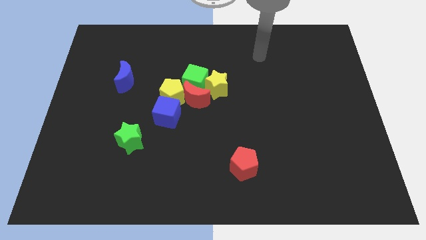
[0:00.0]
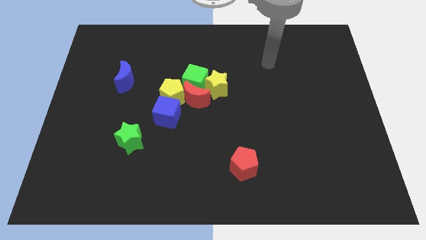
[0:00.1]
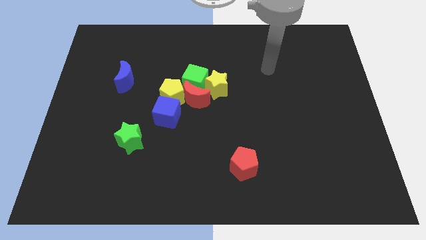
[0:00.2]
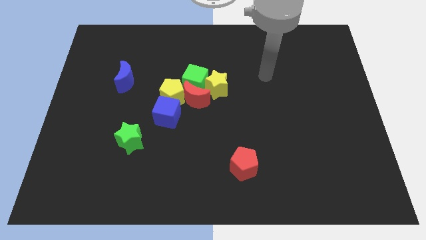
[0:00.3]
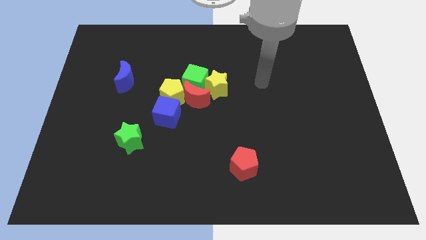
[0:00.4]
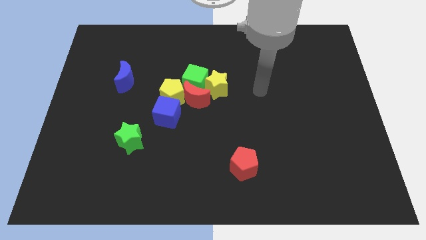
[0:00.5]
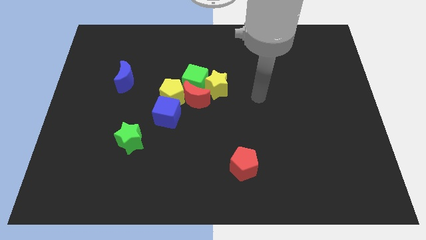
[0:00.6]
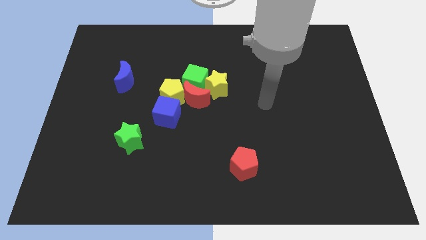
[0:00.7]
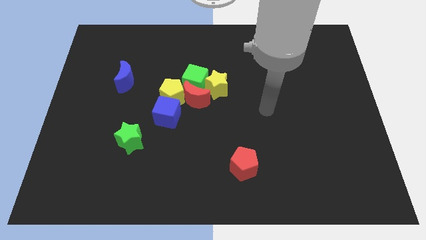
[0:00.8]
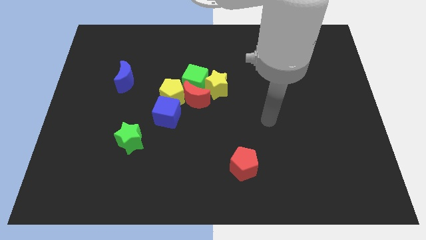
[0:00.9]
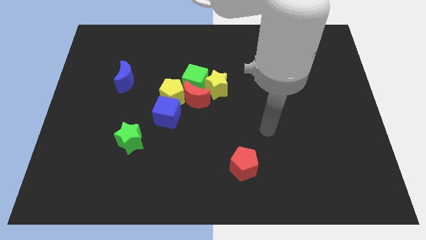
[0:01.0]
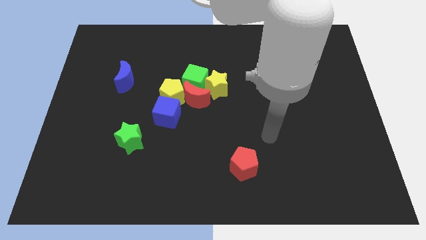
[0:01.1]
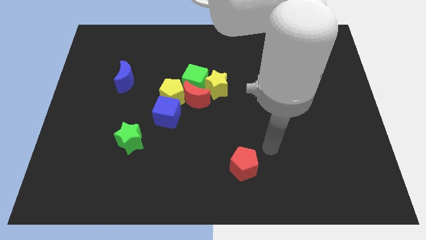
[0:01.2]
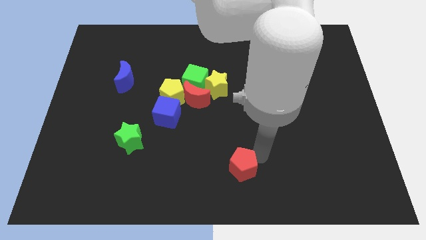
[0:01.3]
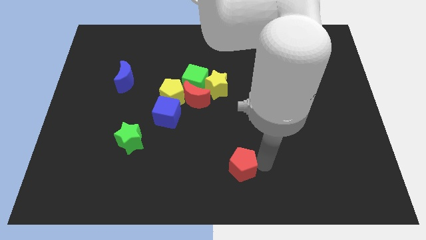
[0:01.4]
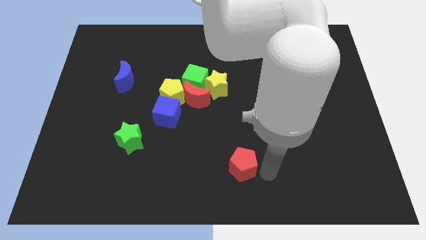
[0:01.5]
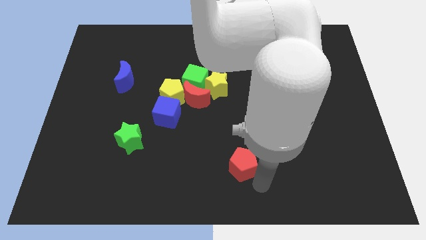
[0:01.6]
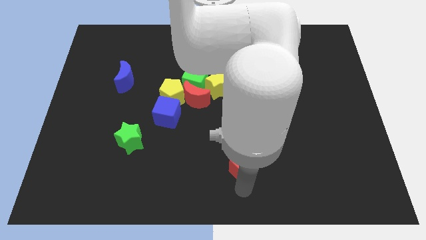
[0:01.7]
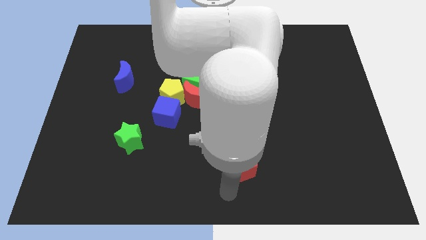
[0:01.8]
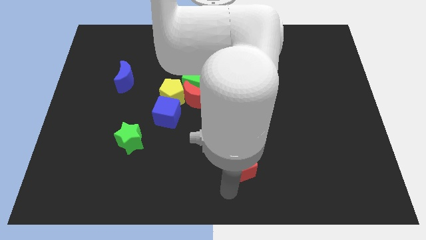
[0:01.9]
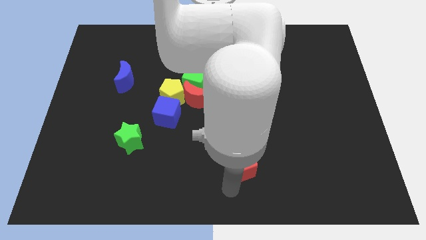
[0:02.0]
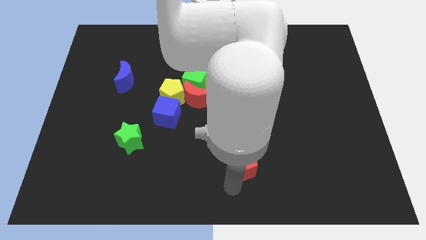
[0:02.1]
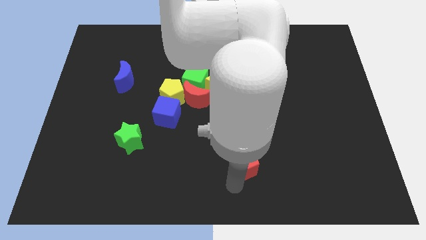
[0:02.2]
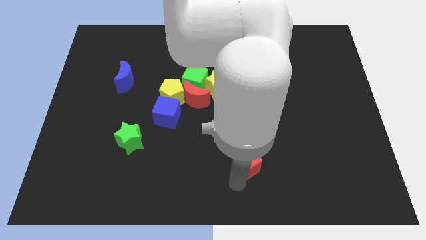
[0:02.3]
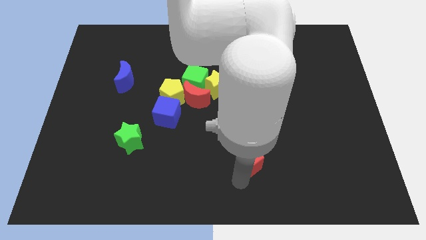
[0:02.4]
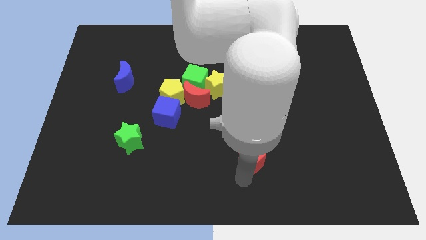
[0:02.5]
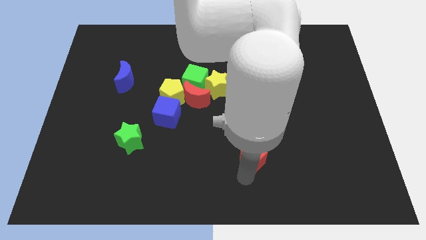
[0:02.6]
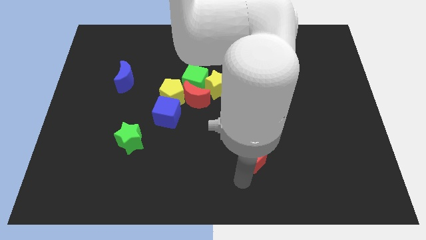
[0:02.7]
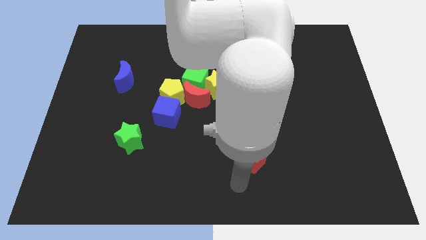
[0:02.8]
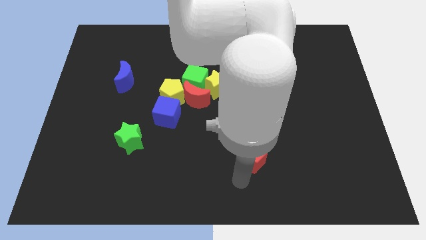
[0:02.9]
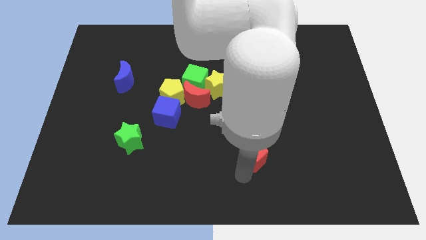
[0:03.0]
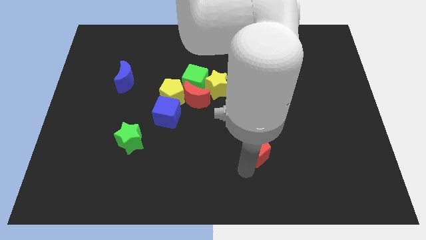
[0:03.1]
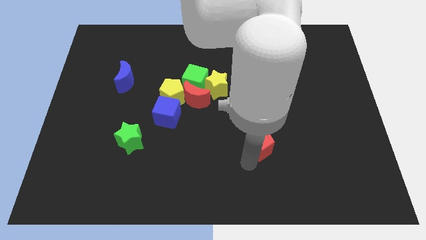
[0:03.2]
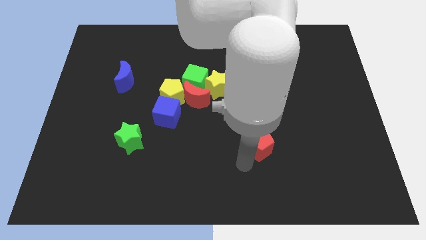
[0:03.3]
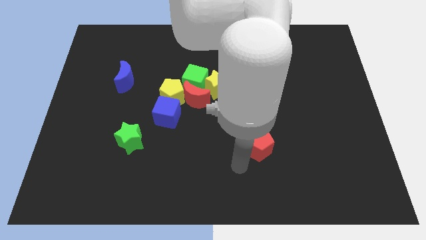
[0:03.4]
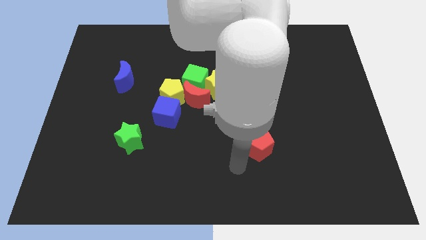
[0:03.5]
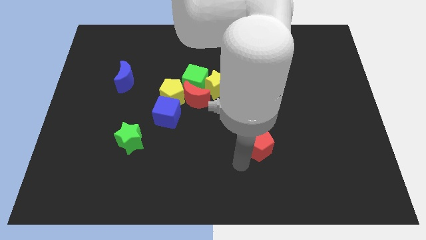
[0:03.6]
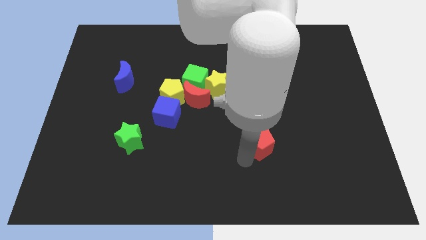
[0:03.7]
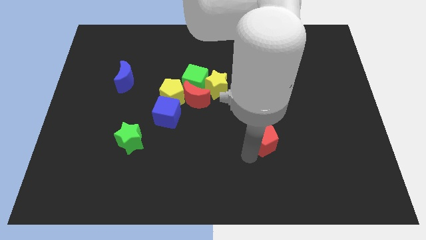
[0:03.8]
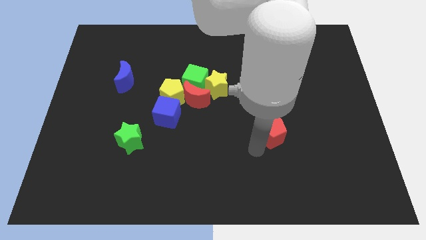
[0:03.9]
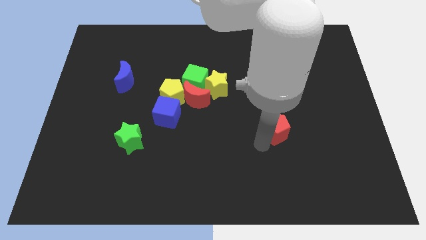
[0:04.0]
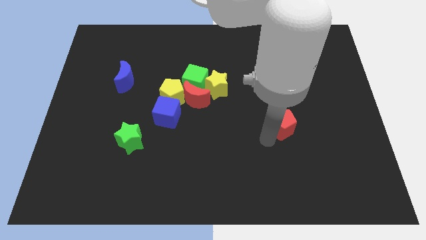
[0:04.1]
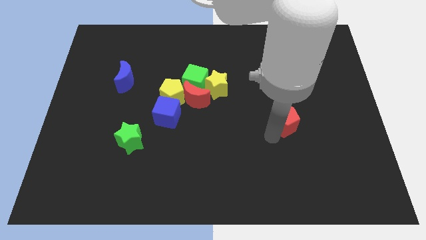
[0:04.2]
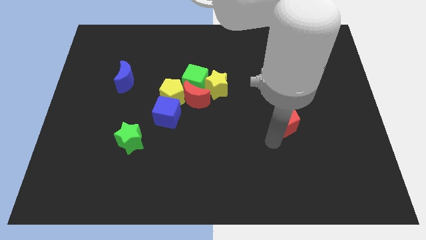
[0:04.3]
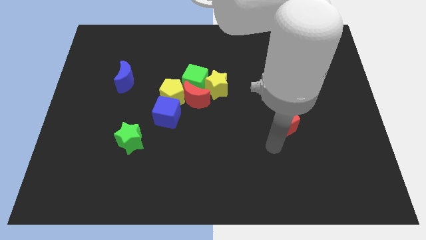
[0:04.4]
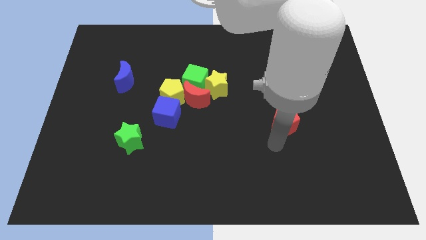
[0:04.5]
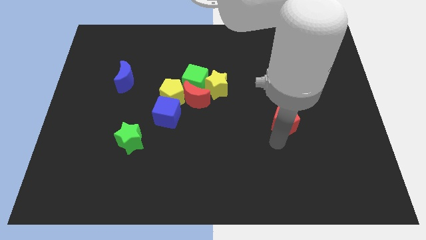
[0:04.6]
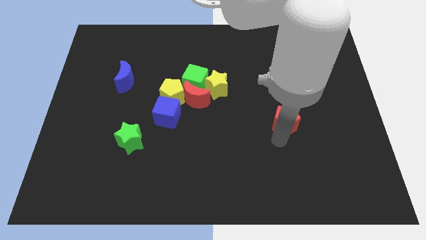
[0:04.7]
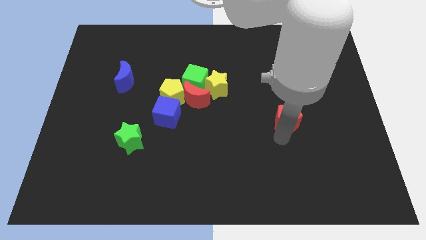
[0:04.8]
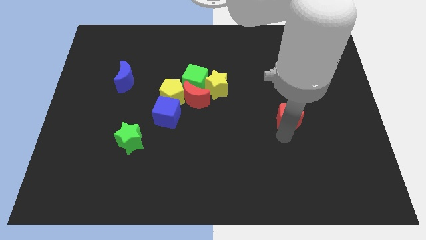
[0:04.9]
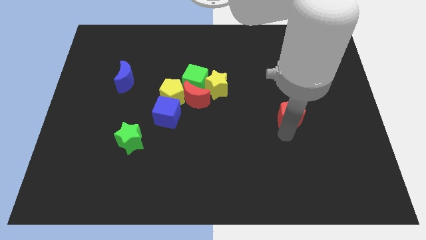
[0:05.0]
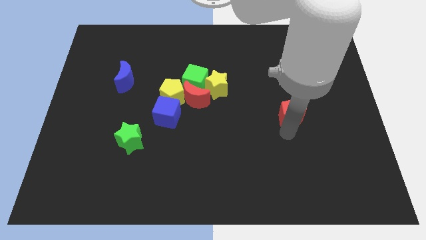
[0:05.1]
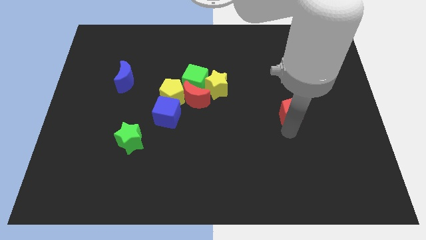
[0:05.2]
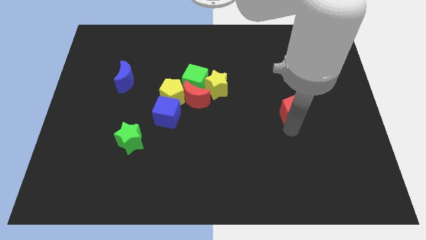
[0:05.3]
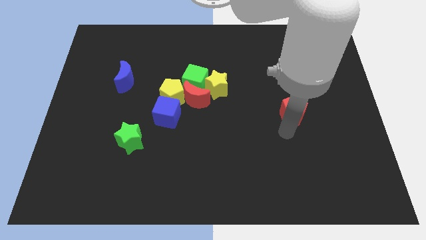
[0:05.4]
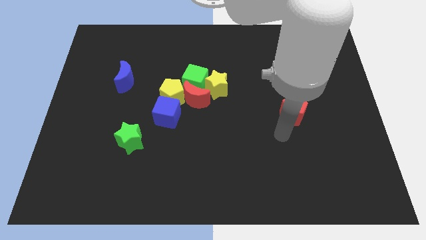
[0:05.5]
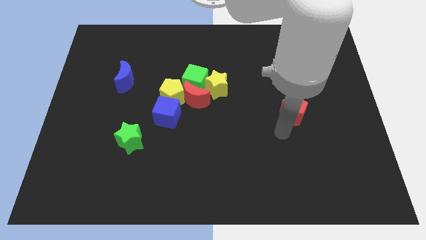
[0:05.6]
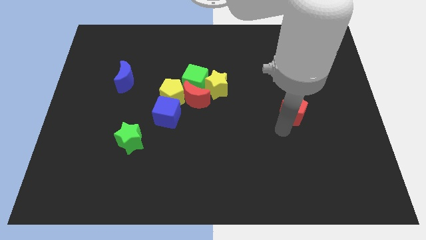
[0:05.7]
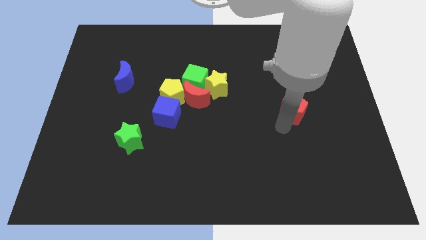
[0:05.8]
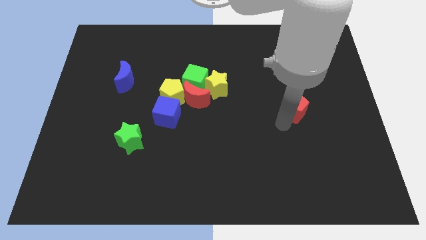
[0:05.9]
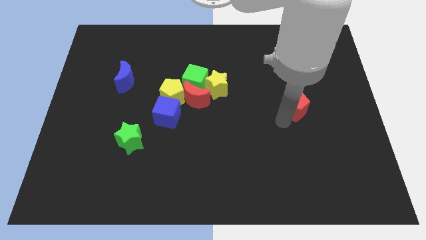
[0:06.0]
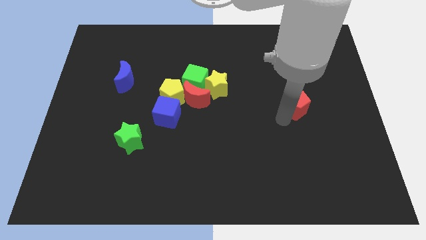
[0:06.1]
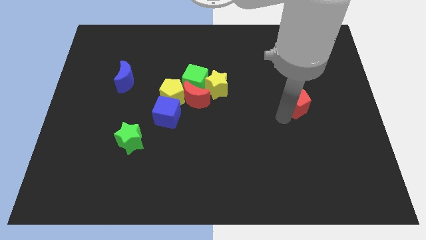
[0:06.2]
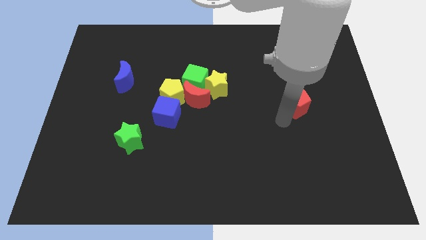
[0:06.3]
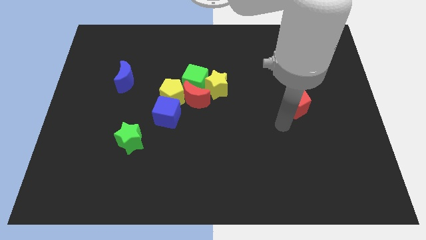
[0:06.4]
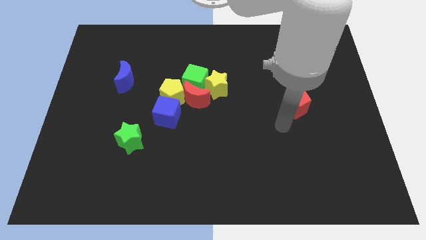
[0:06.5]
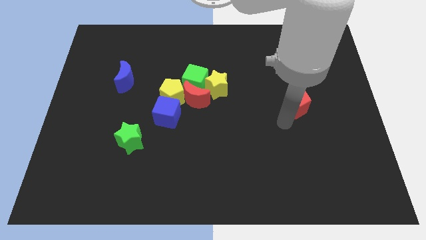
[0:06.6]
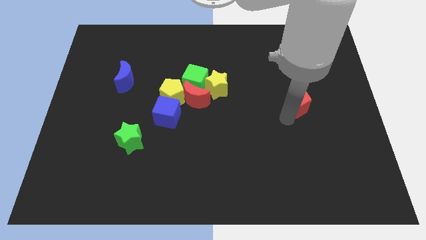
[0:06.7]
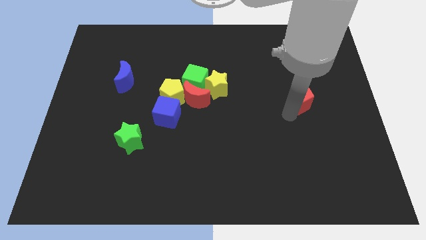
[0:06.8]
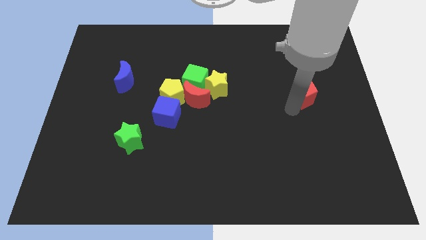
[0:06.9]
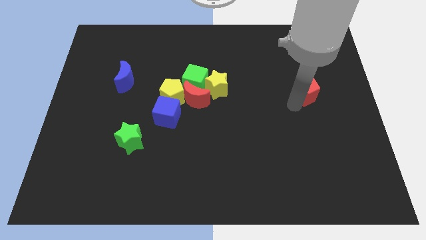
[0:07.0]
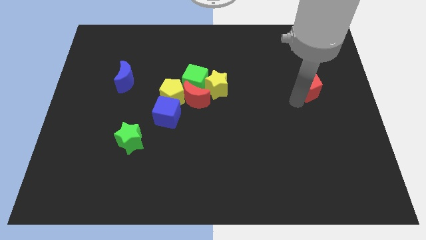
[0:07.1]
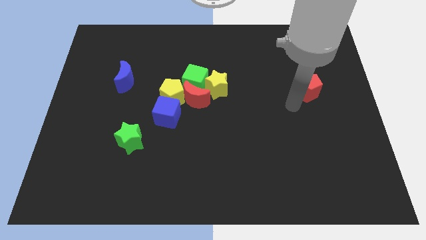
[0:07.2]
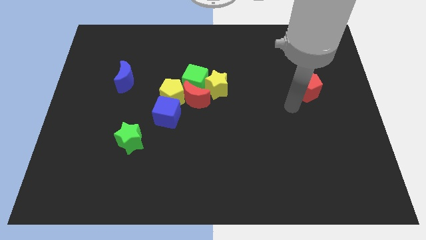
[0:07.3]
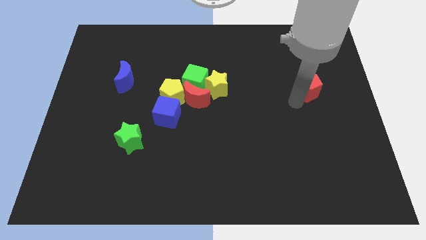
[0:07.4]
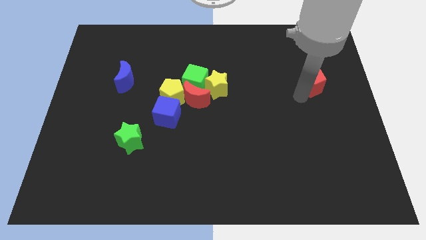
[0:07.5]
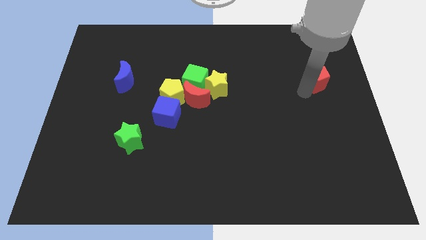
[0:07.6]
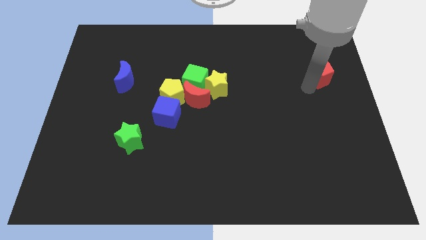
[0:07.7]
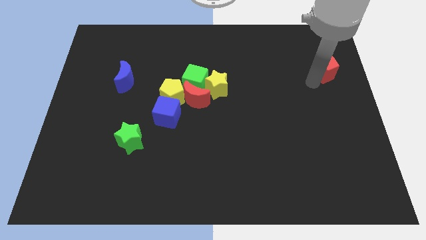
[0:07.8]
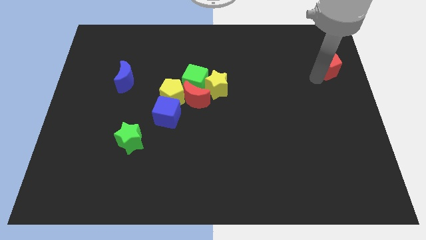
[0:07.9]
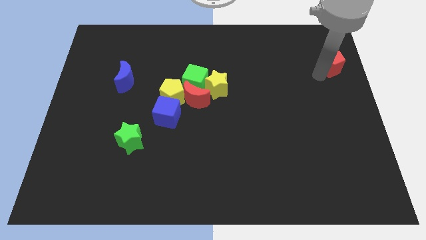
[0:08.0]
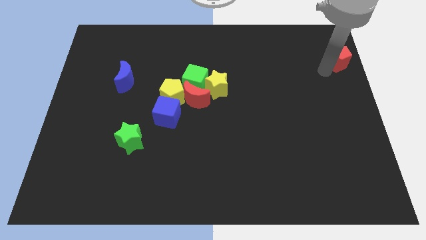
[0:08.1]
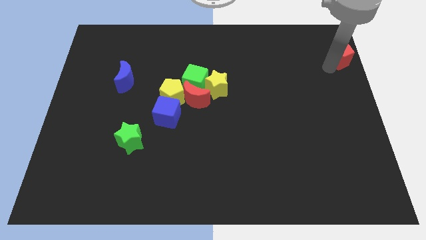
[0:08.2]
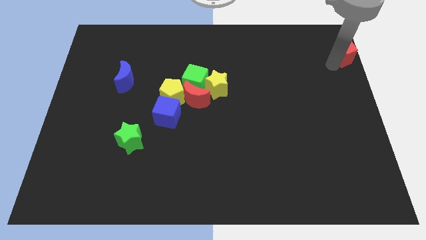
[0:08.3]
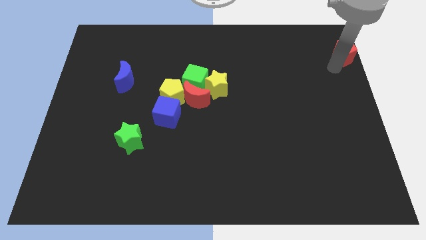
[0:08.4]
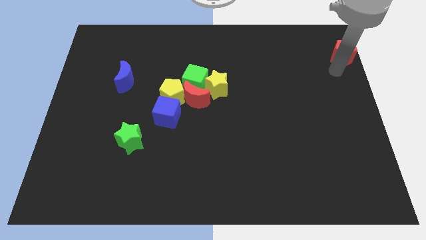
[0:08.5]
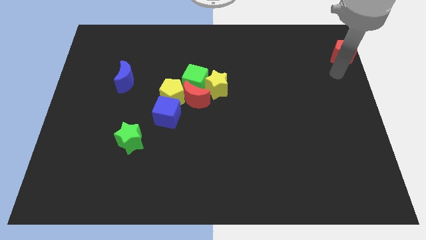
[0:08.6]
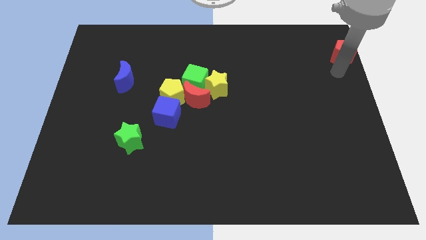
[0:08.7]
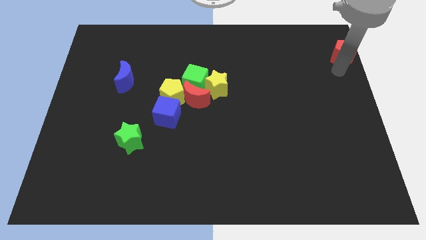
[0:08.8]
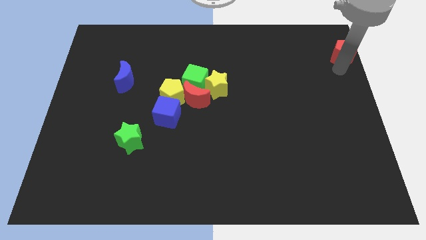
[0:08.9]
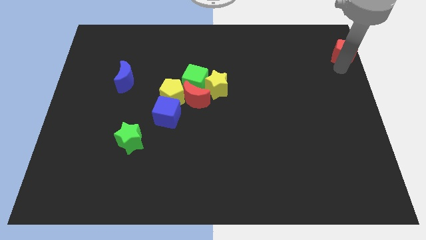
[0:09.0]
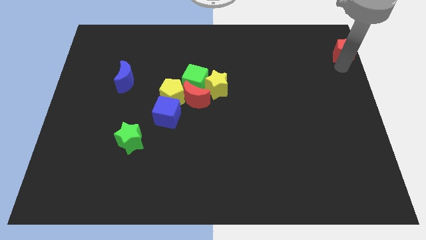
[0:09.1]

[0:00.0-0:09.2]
push the red pentagon to the top right of the board
